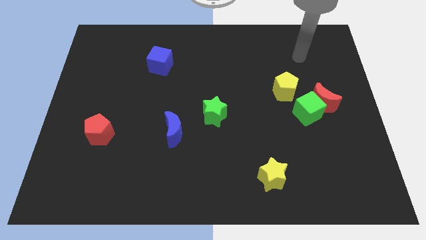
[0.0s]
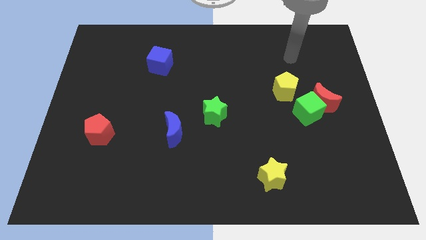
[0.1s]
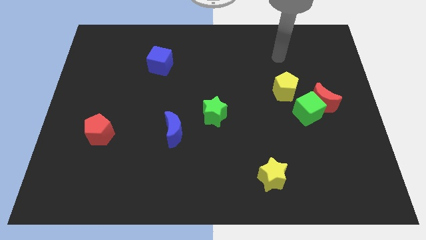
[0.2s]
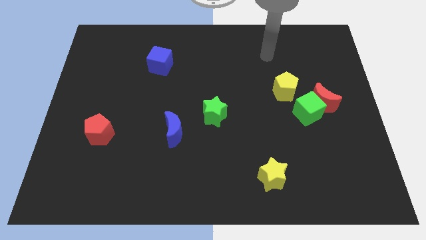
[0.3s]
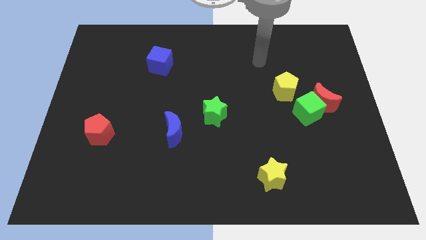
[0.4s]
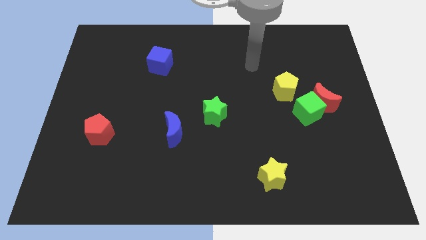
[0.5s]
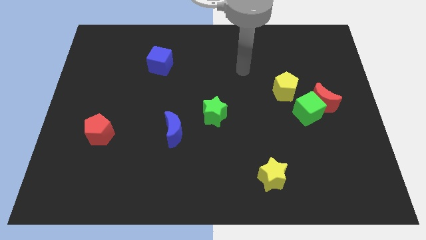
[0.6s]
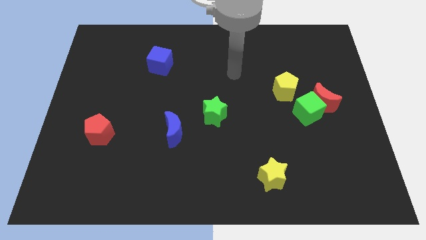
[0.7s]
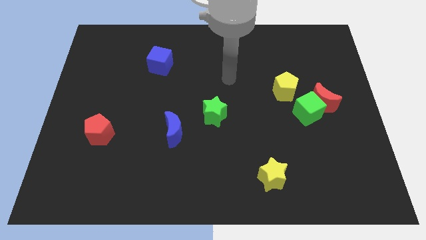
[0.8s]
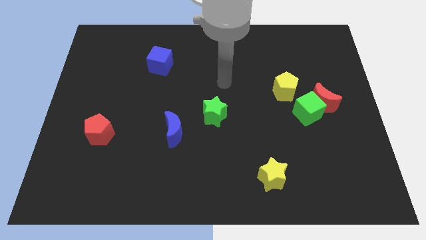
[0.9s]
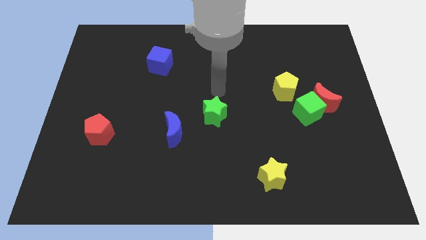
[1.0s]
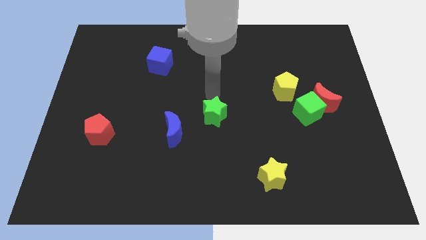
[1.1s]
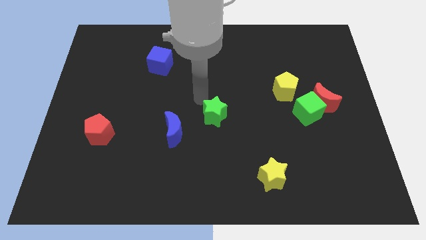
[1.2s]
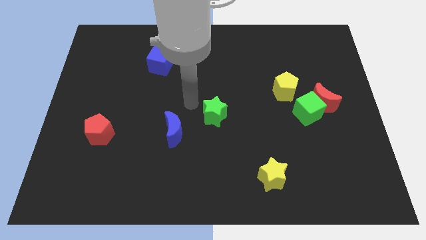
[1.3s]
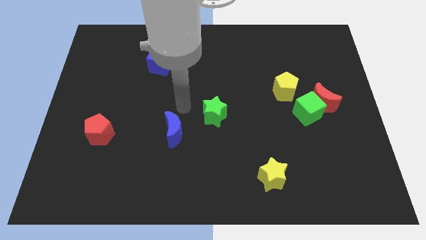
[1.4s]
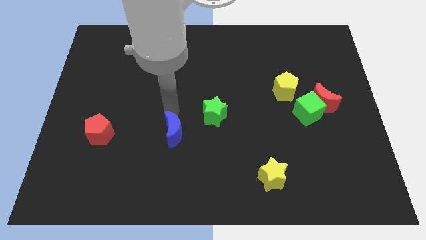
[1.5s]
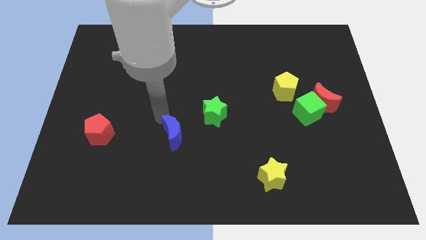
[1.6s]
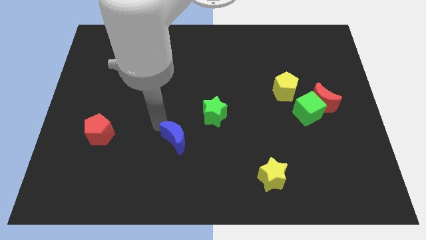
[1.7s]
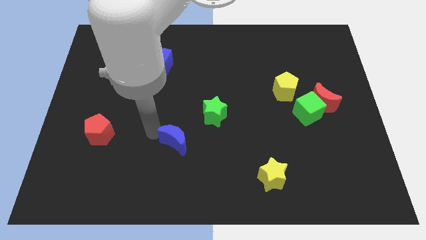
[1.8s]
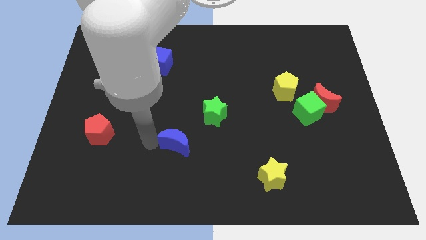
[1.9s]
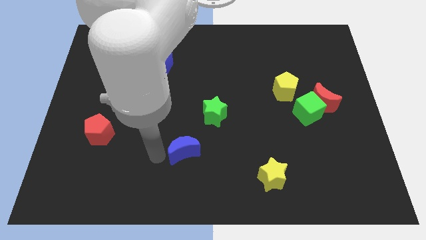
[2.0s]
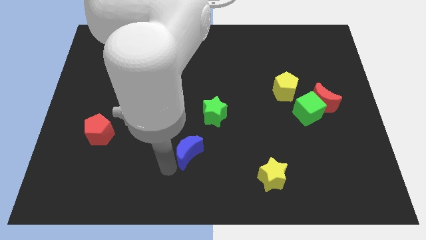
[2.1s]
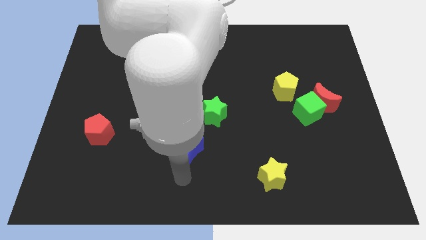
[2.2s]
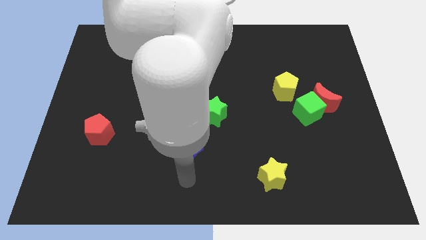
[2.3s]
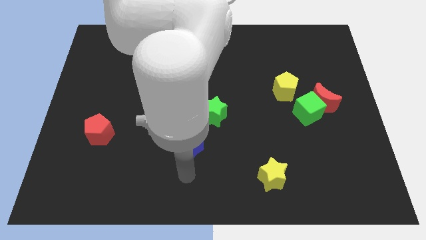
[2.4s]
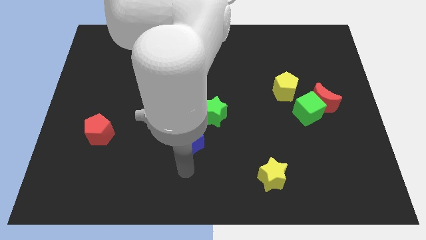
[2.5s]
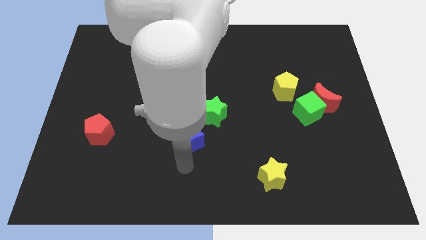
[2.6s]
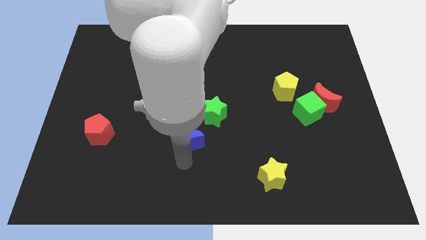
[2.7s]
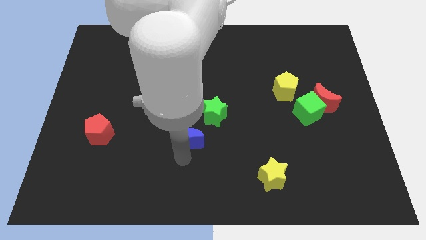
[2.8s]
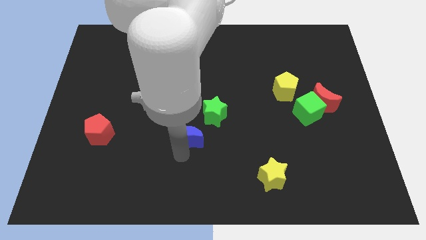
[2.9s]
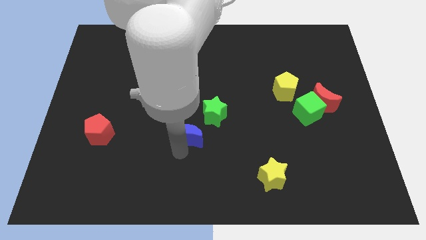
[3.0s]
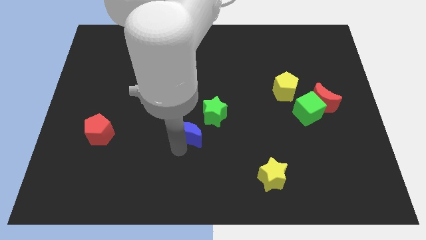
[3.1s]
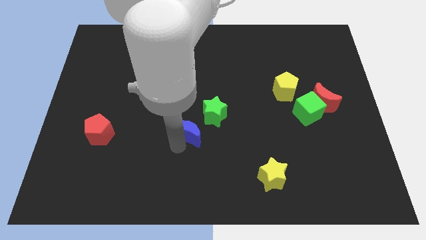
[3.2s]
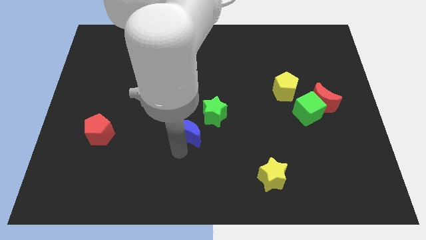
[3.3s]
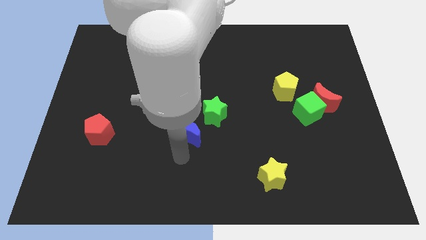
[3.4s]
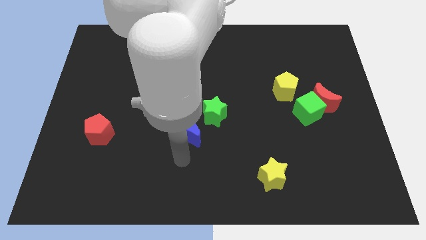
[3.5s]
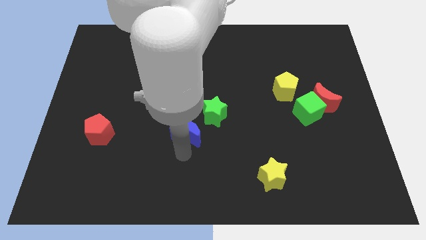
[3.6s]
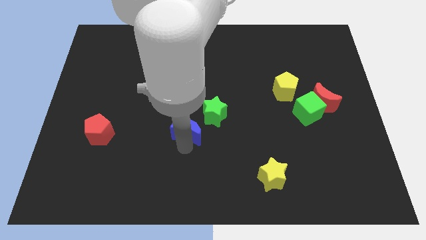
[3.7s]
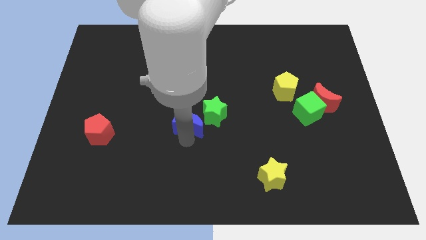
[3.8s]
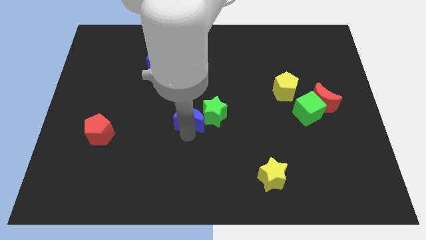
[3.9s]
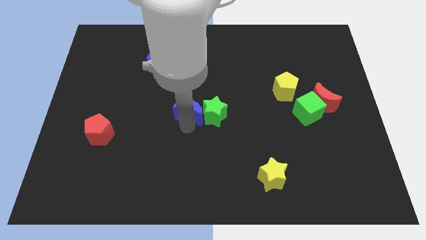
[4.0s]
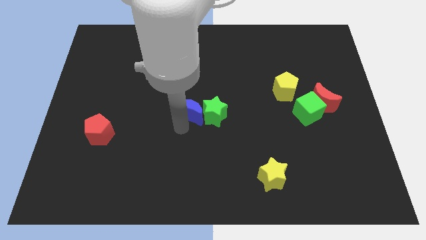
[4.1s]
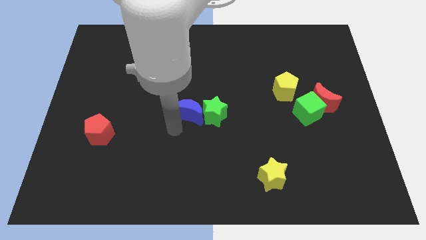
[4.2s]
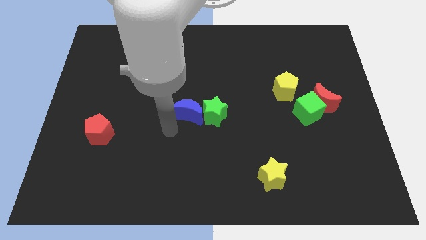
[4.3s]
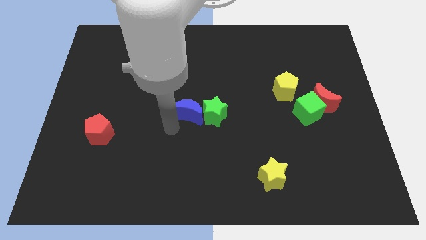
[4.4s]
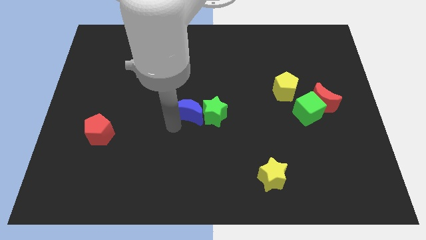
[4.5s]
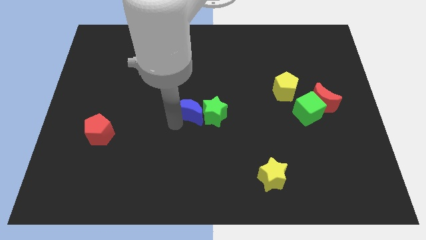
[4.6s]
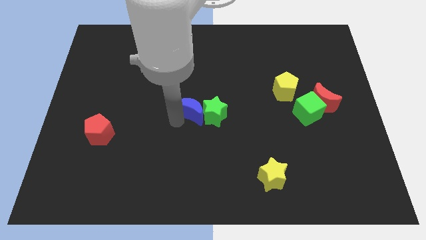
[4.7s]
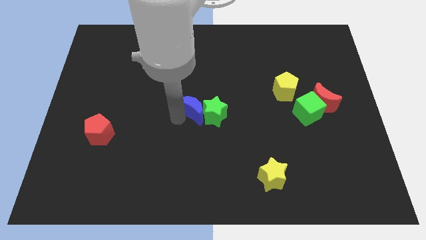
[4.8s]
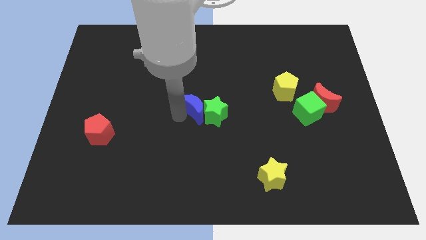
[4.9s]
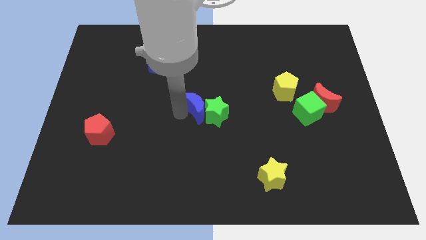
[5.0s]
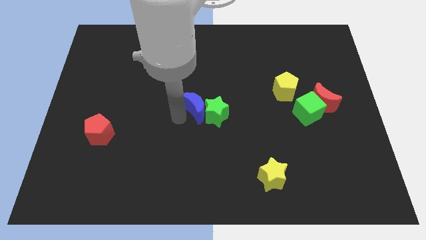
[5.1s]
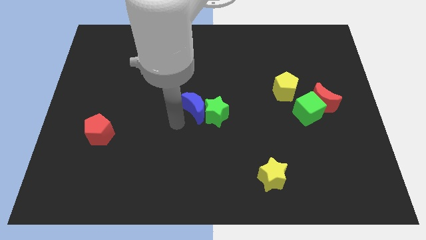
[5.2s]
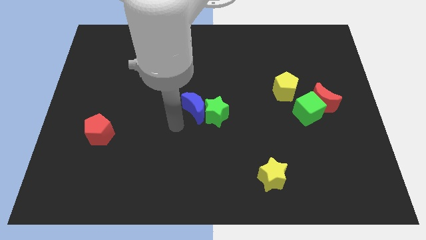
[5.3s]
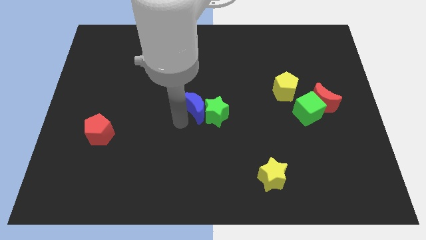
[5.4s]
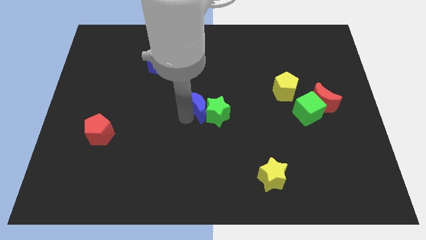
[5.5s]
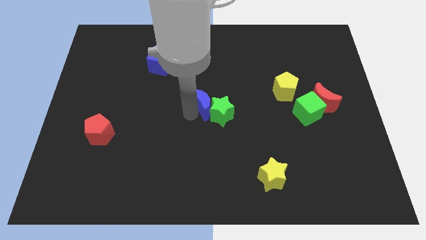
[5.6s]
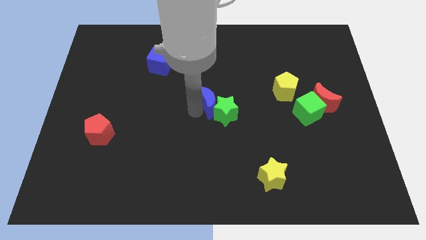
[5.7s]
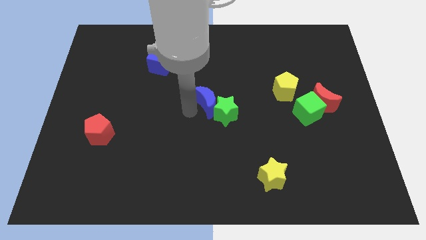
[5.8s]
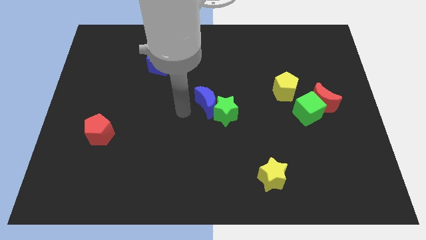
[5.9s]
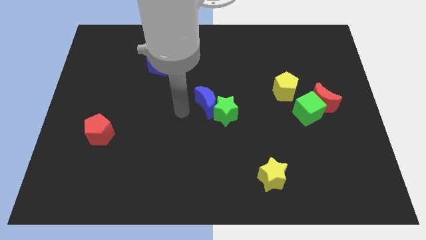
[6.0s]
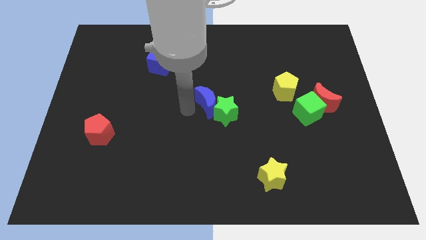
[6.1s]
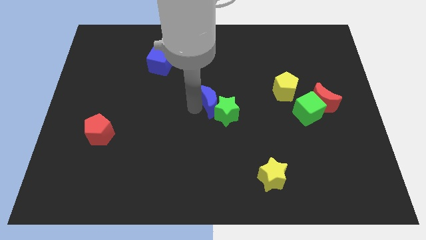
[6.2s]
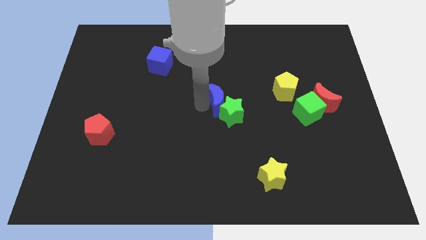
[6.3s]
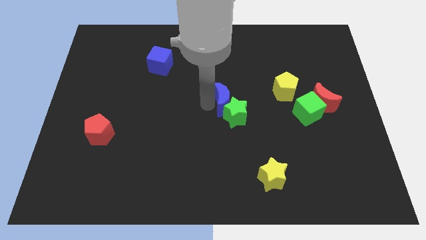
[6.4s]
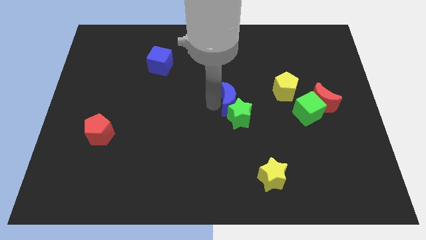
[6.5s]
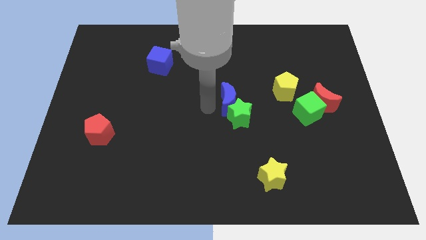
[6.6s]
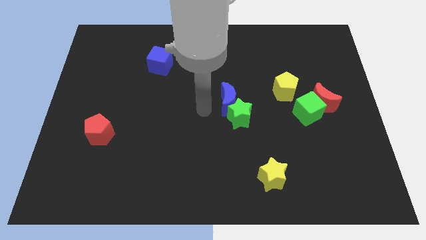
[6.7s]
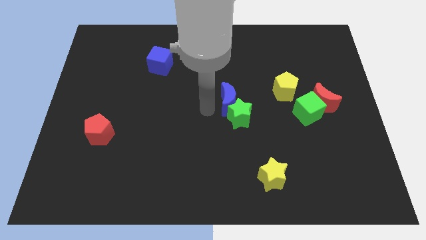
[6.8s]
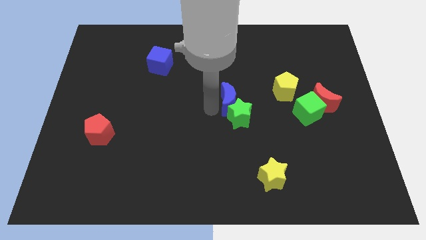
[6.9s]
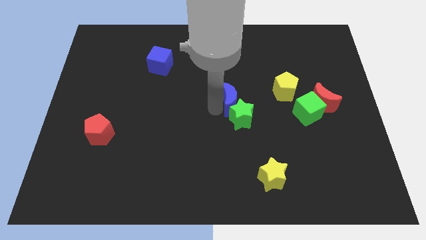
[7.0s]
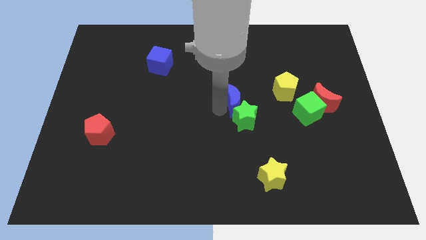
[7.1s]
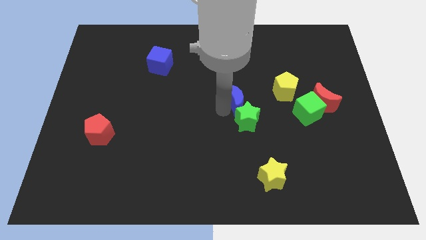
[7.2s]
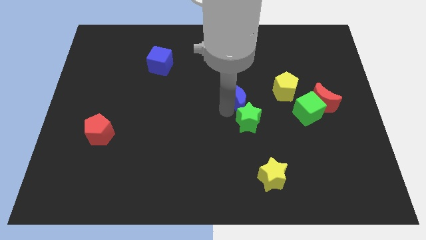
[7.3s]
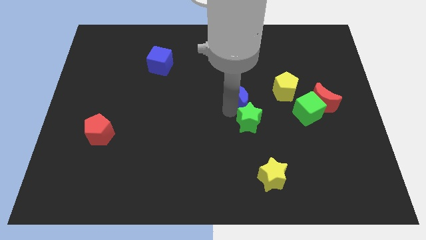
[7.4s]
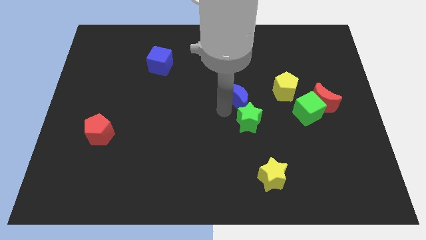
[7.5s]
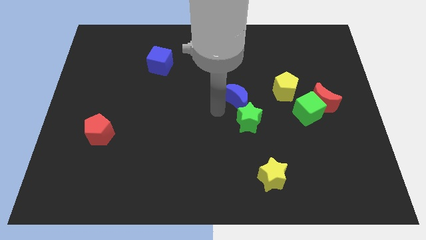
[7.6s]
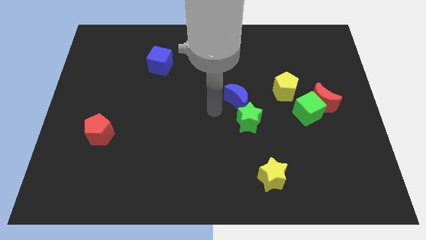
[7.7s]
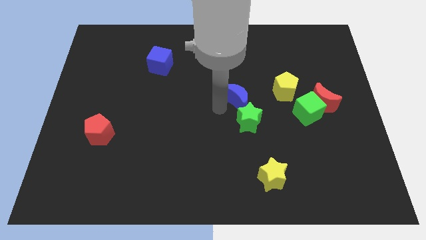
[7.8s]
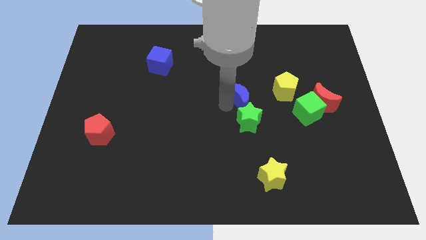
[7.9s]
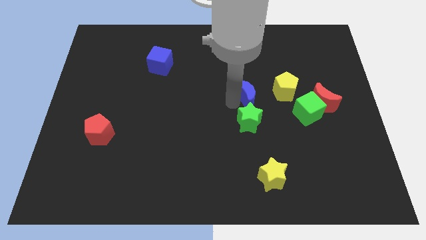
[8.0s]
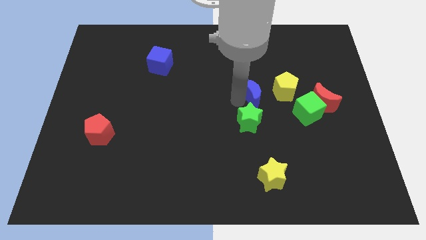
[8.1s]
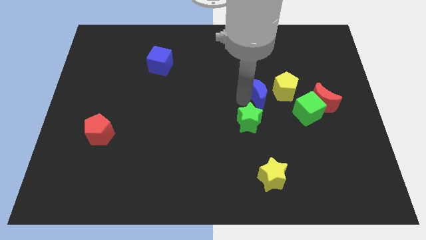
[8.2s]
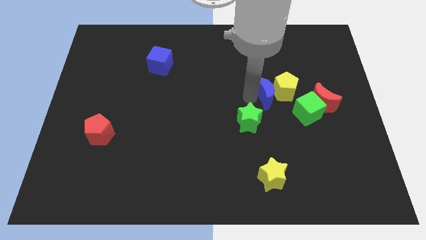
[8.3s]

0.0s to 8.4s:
push the blue moon next to the yellow pentagon
